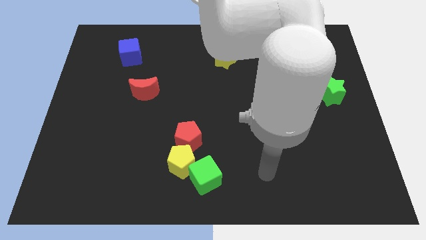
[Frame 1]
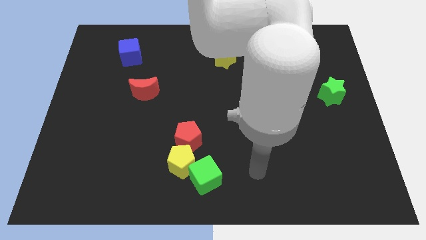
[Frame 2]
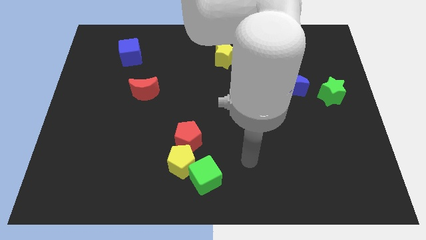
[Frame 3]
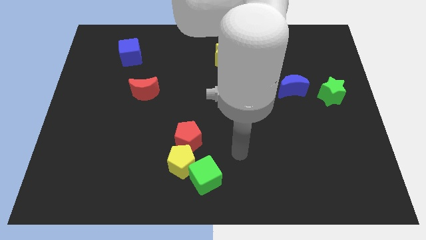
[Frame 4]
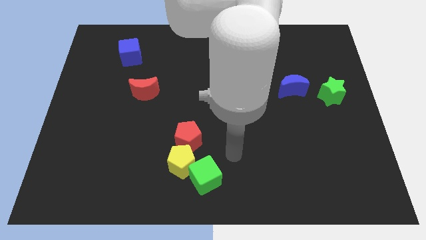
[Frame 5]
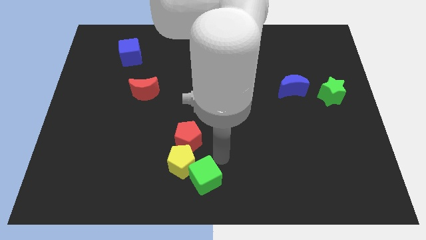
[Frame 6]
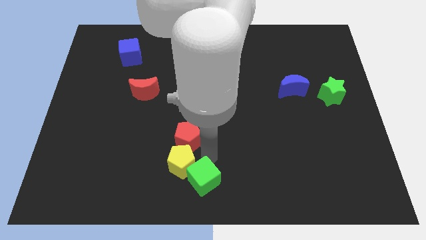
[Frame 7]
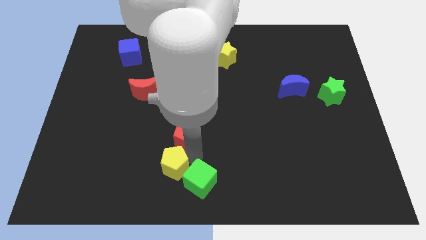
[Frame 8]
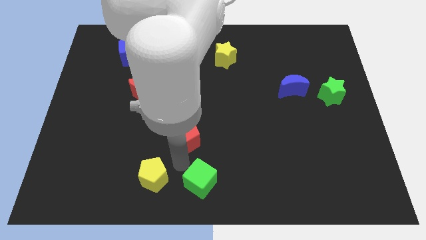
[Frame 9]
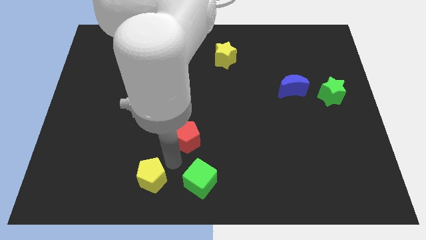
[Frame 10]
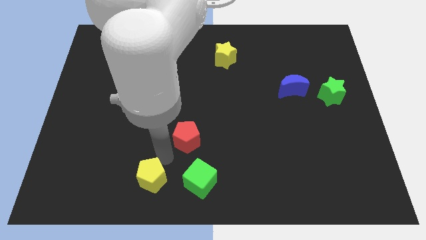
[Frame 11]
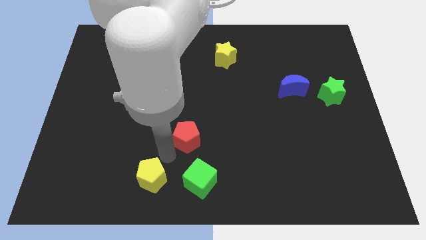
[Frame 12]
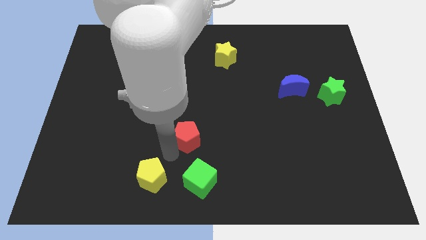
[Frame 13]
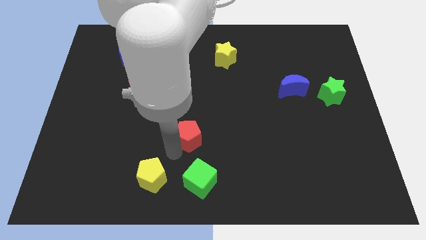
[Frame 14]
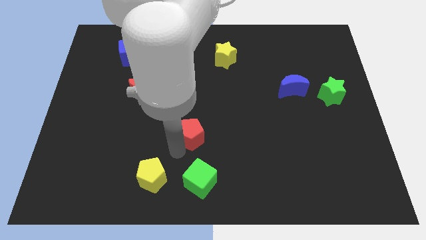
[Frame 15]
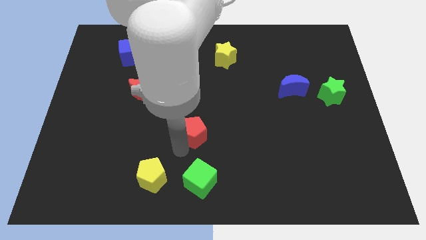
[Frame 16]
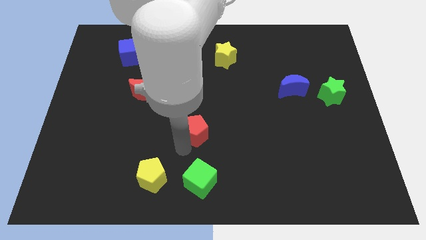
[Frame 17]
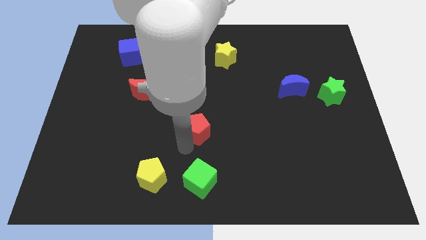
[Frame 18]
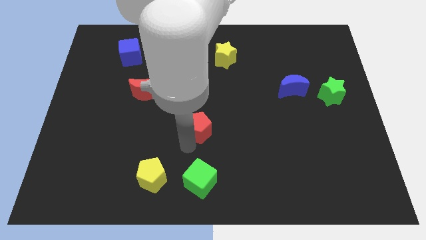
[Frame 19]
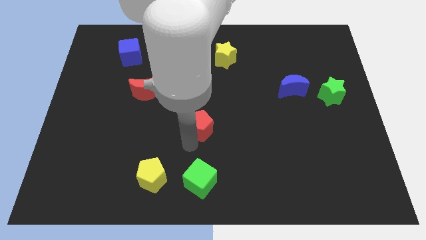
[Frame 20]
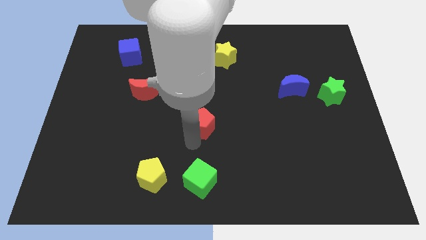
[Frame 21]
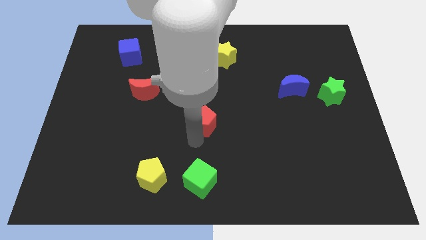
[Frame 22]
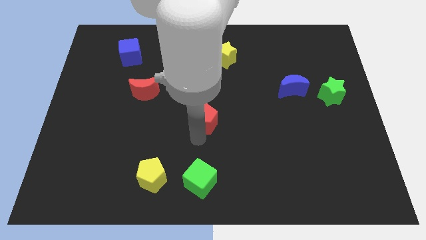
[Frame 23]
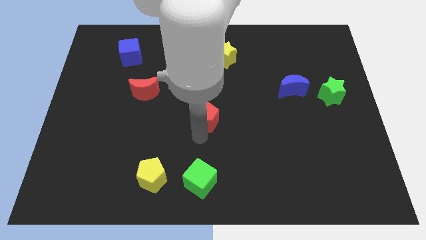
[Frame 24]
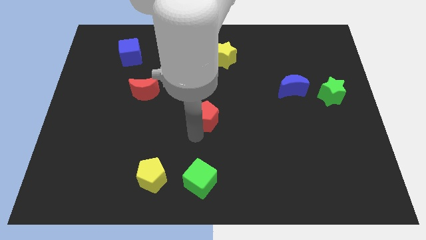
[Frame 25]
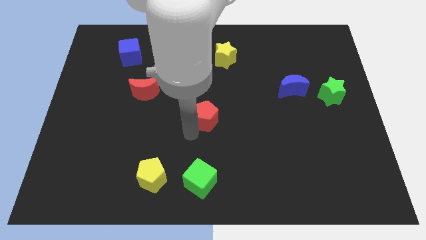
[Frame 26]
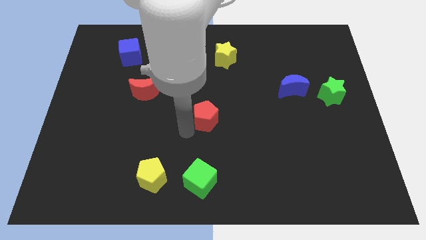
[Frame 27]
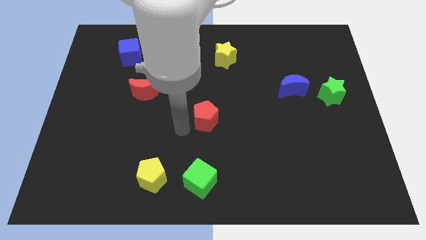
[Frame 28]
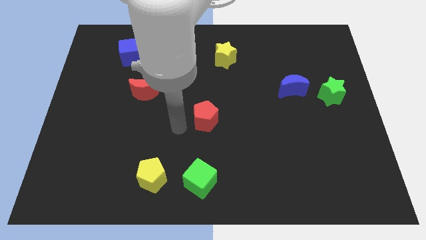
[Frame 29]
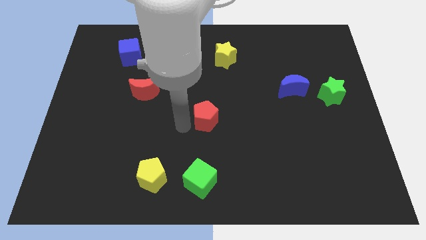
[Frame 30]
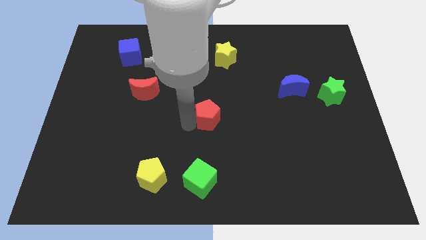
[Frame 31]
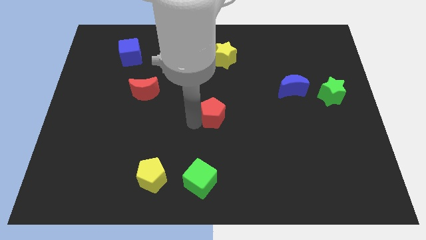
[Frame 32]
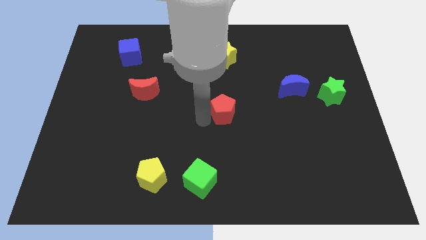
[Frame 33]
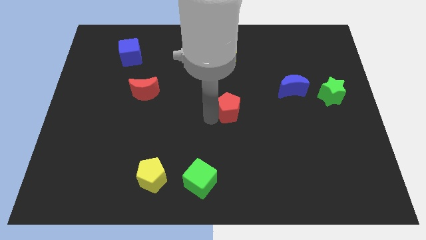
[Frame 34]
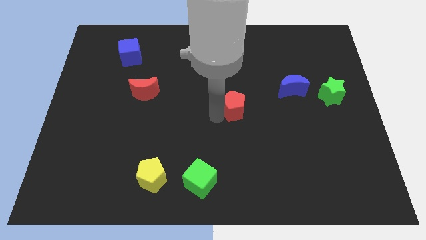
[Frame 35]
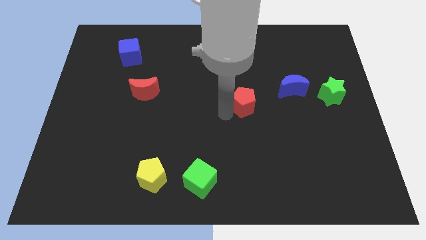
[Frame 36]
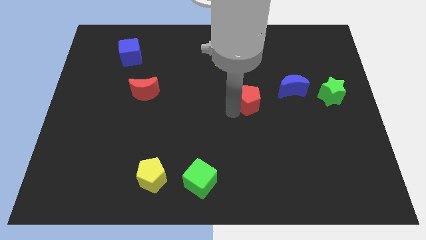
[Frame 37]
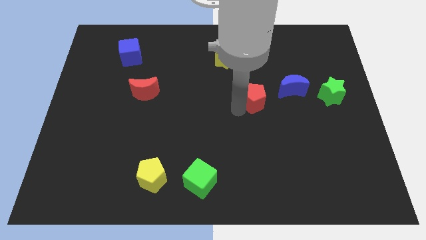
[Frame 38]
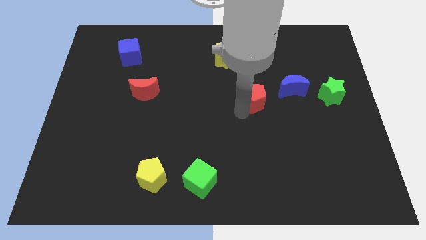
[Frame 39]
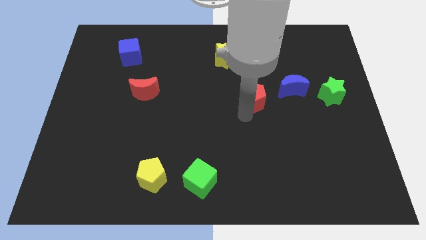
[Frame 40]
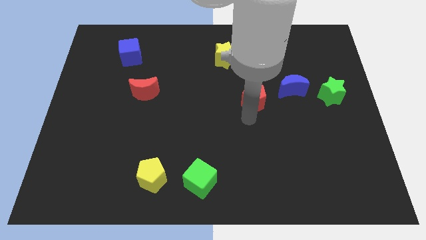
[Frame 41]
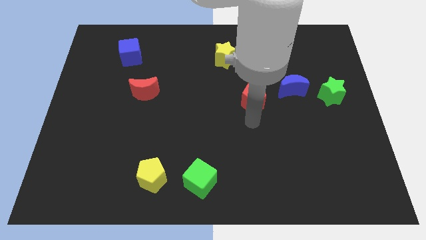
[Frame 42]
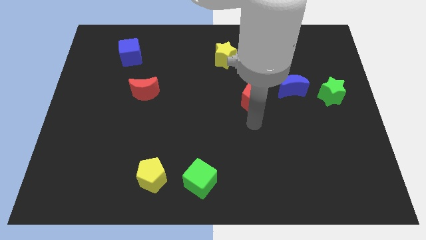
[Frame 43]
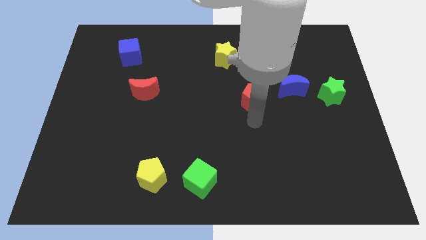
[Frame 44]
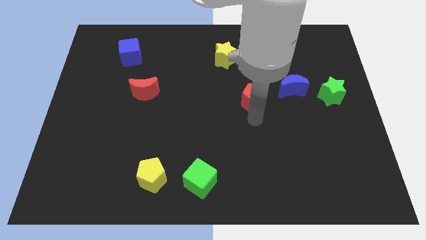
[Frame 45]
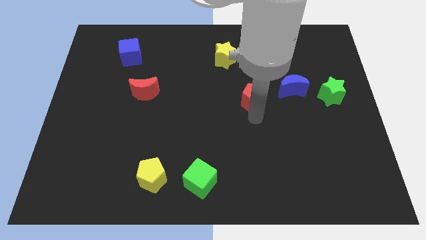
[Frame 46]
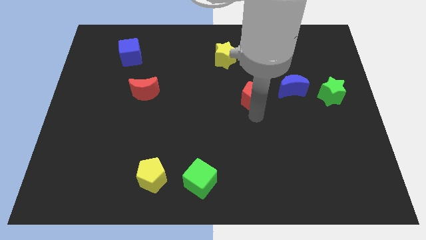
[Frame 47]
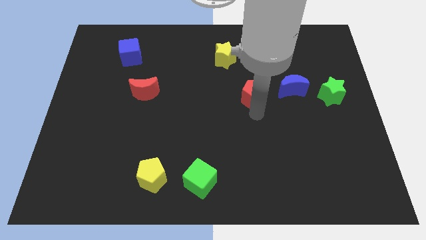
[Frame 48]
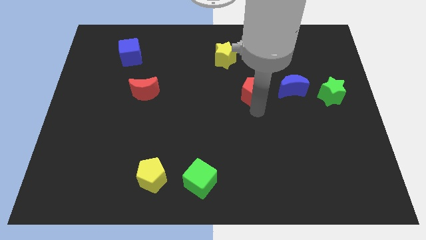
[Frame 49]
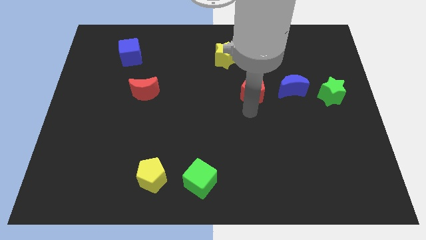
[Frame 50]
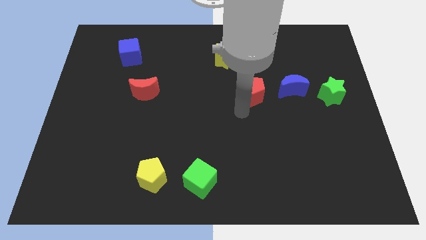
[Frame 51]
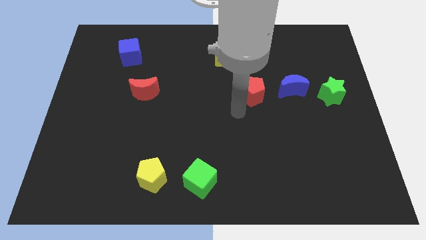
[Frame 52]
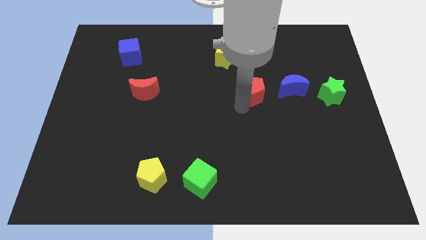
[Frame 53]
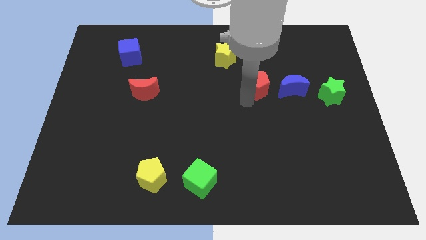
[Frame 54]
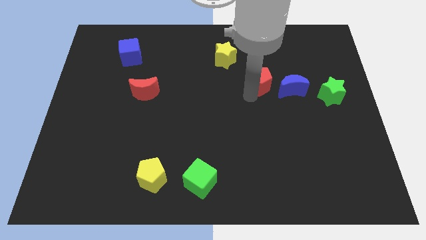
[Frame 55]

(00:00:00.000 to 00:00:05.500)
move the red pentagon diagonally up and to the left of the blue moon

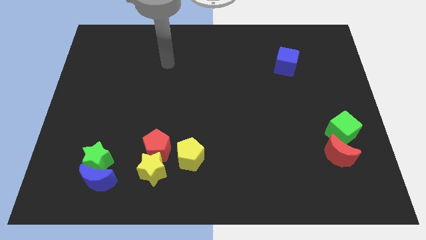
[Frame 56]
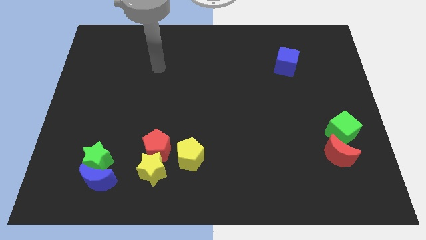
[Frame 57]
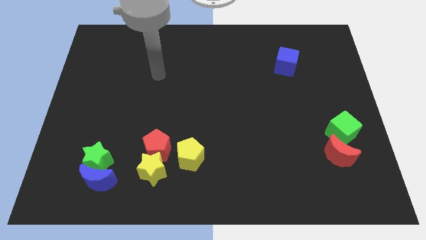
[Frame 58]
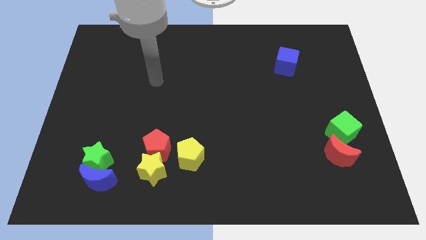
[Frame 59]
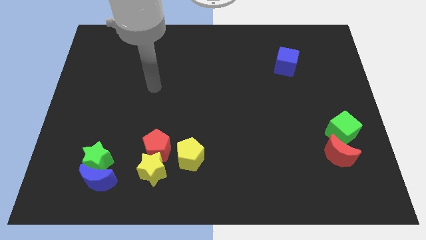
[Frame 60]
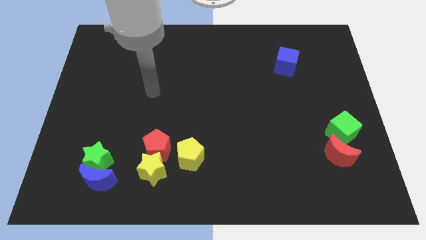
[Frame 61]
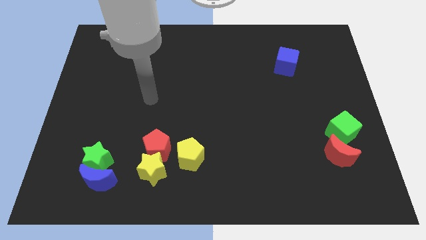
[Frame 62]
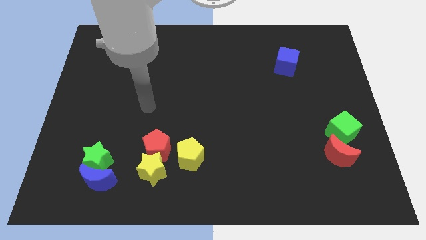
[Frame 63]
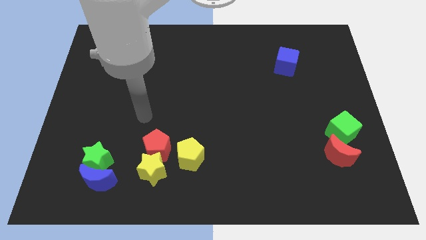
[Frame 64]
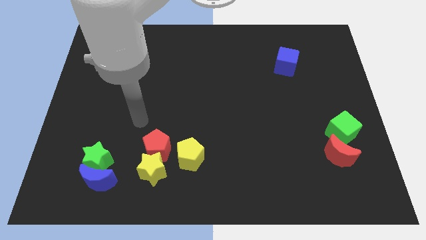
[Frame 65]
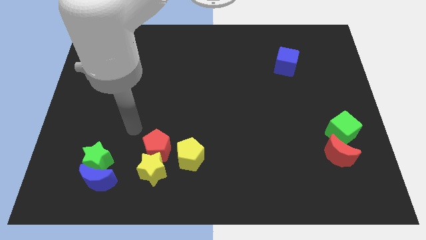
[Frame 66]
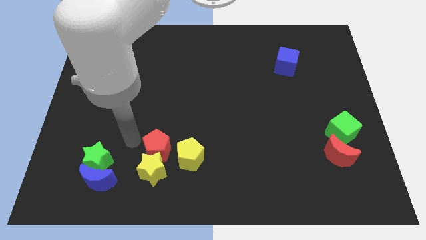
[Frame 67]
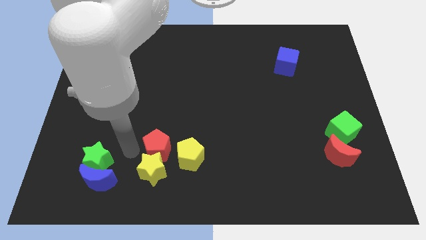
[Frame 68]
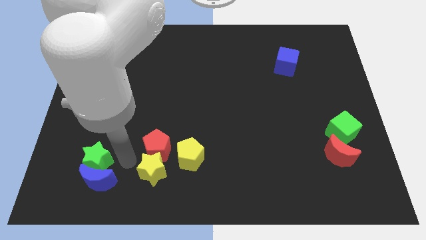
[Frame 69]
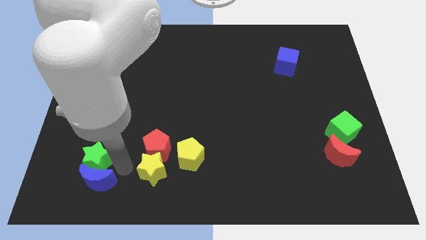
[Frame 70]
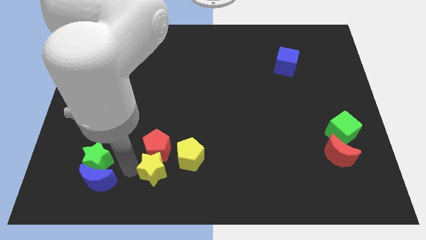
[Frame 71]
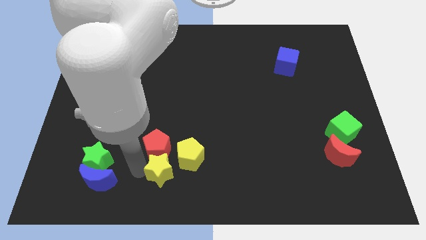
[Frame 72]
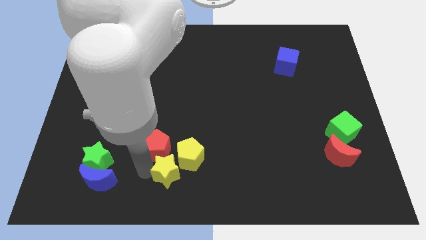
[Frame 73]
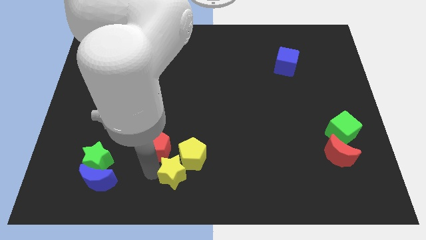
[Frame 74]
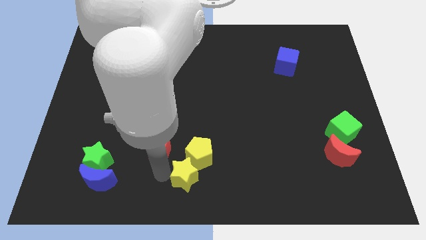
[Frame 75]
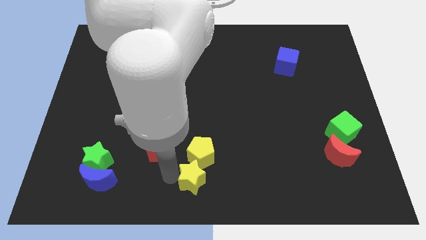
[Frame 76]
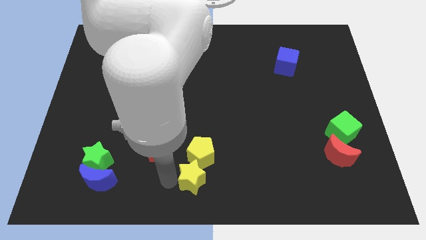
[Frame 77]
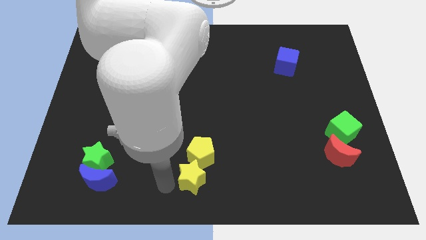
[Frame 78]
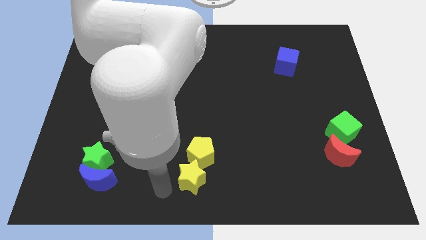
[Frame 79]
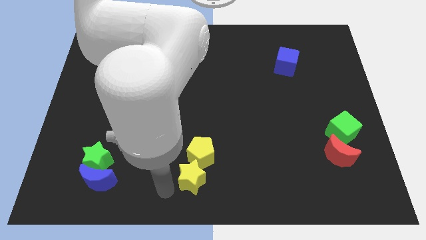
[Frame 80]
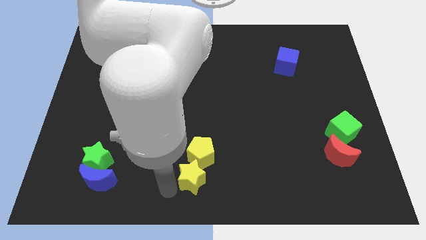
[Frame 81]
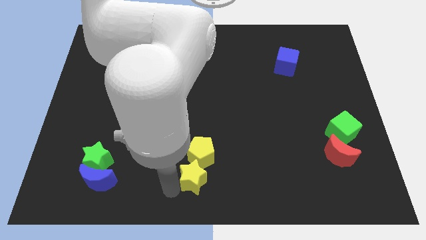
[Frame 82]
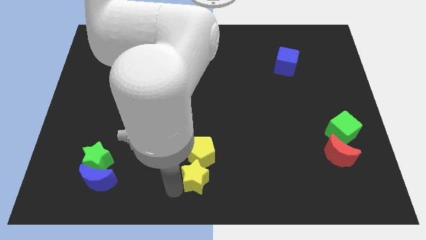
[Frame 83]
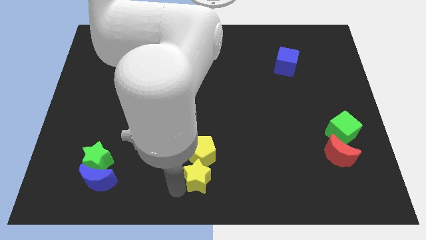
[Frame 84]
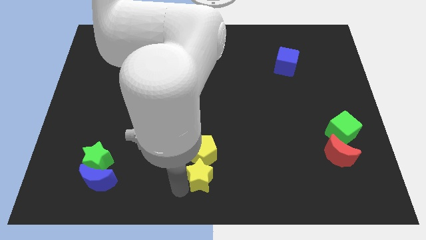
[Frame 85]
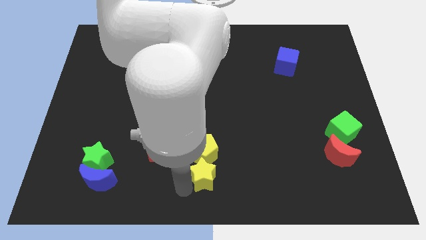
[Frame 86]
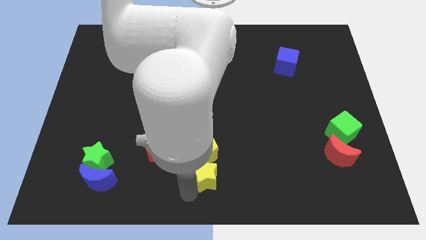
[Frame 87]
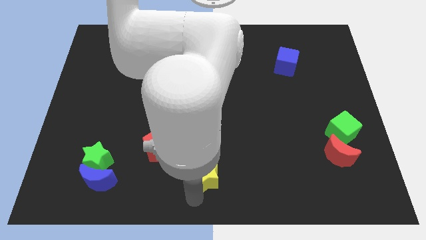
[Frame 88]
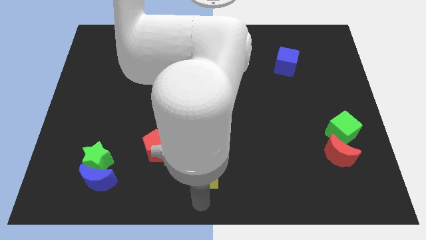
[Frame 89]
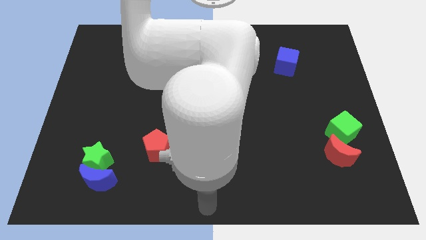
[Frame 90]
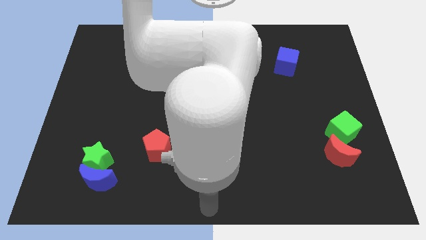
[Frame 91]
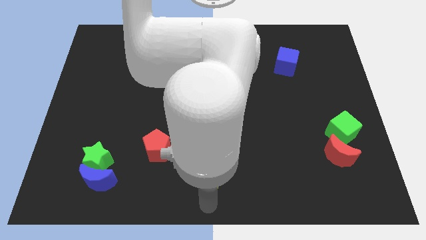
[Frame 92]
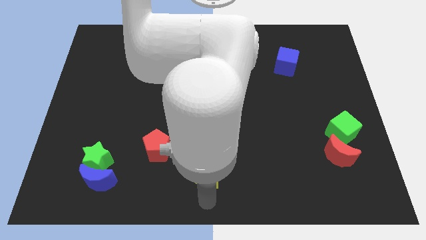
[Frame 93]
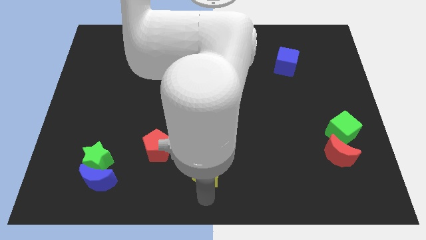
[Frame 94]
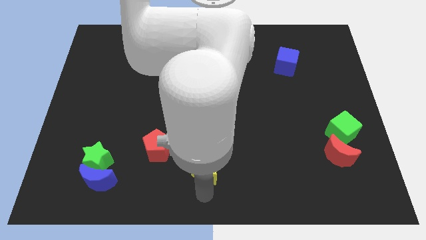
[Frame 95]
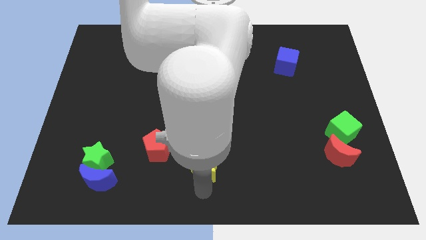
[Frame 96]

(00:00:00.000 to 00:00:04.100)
move the yellow star to the right side of the red pentagon
